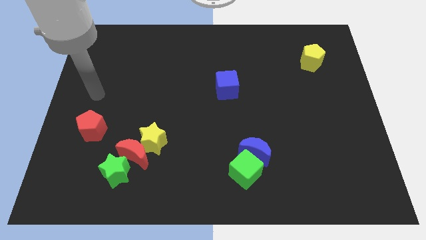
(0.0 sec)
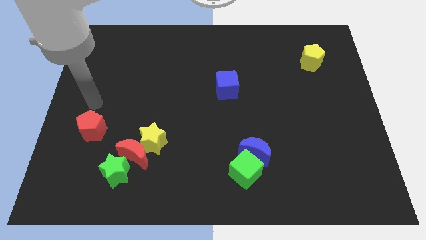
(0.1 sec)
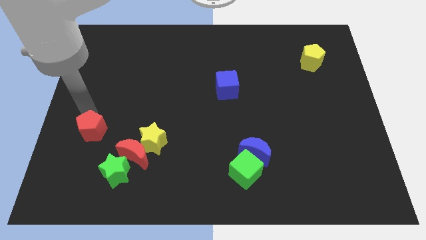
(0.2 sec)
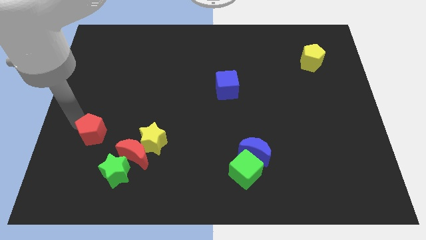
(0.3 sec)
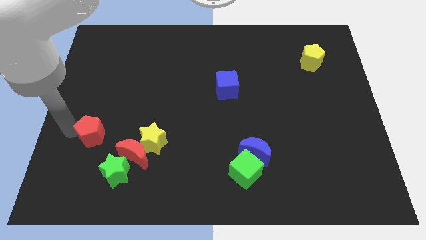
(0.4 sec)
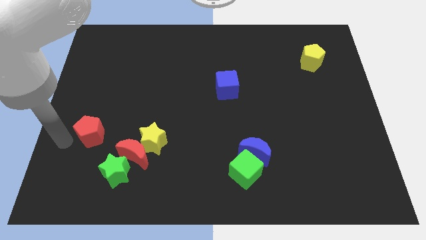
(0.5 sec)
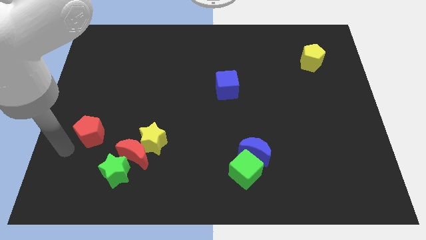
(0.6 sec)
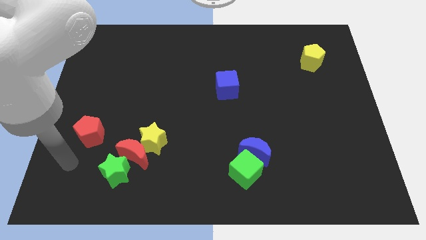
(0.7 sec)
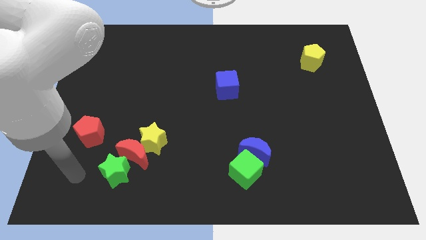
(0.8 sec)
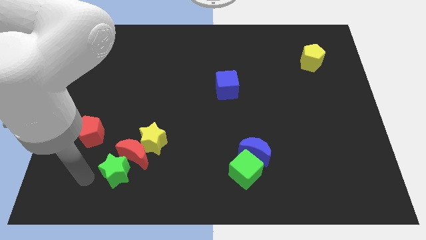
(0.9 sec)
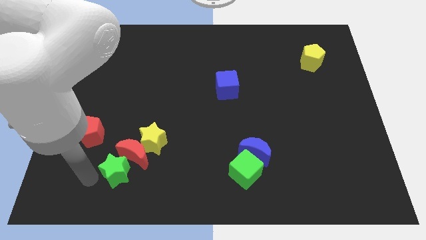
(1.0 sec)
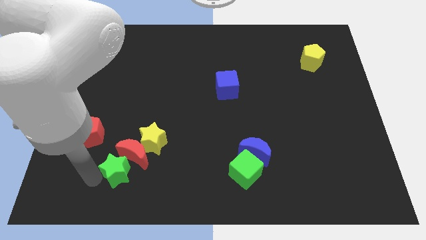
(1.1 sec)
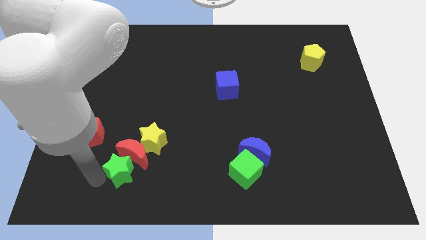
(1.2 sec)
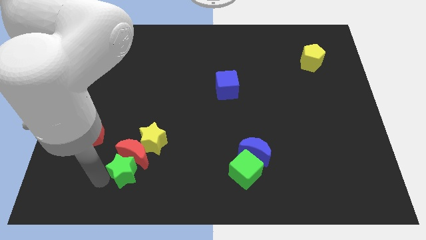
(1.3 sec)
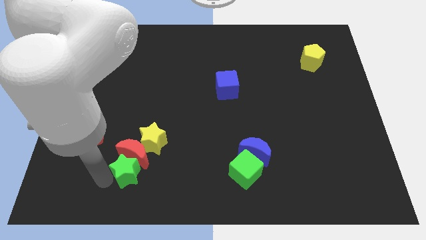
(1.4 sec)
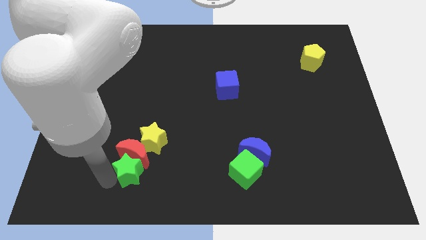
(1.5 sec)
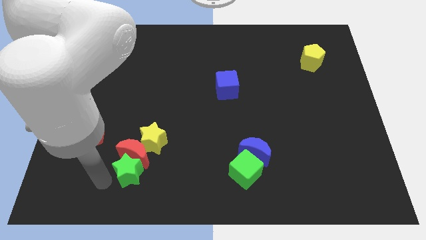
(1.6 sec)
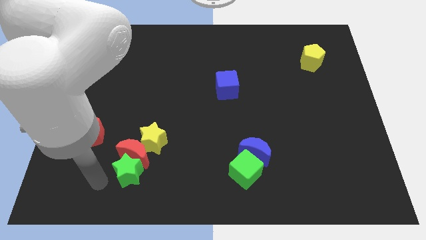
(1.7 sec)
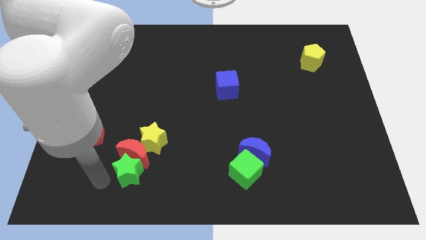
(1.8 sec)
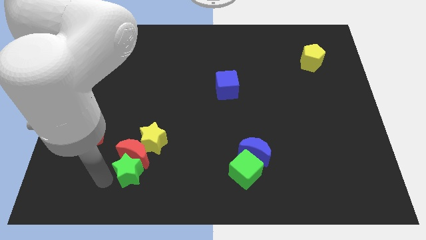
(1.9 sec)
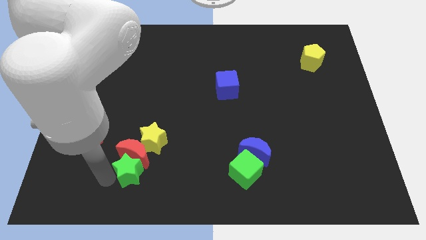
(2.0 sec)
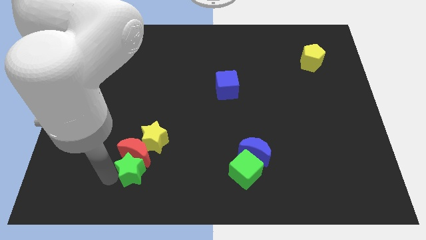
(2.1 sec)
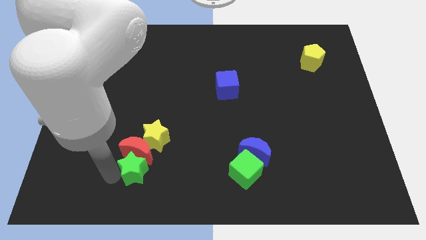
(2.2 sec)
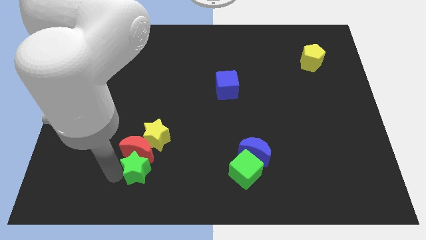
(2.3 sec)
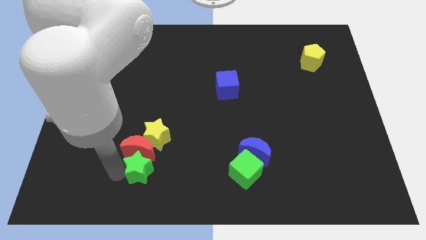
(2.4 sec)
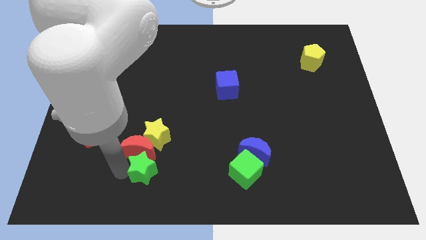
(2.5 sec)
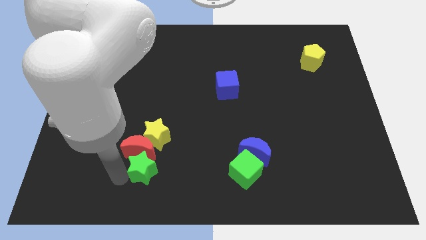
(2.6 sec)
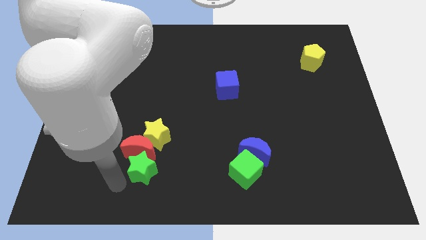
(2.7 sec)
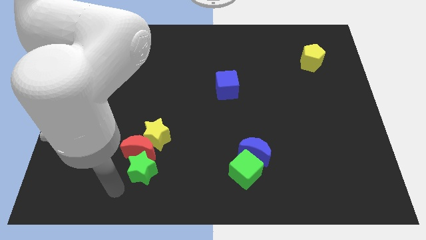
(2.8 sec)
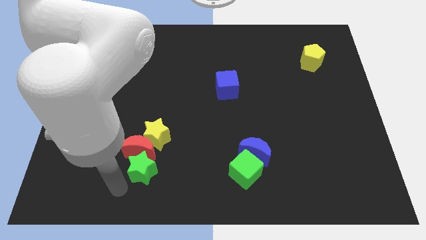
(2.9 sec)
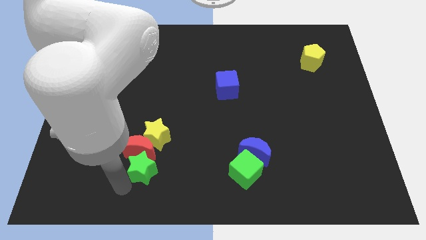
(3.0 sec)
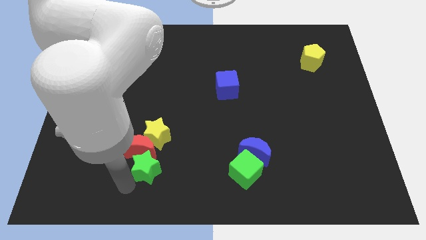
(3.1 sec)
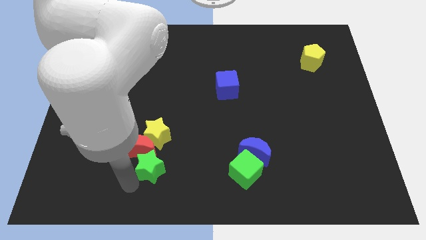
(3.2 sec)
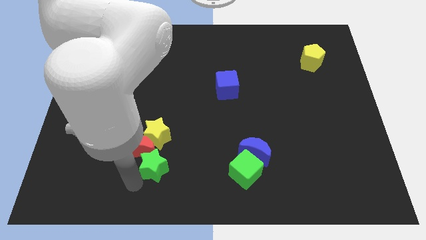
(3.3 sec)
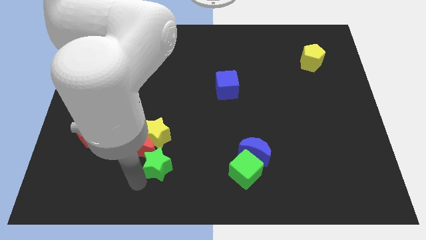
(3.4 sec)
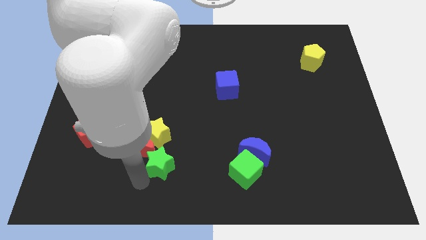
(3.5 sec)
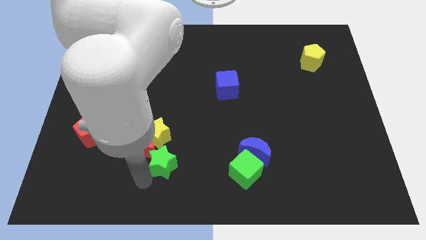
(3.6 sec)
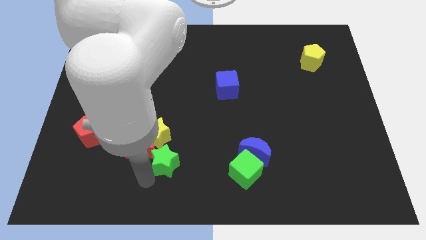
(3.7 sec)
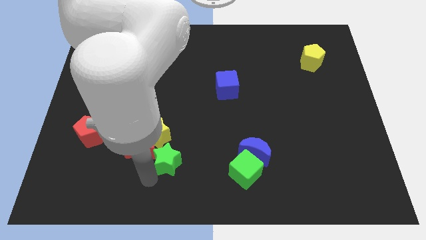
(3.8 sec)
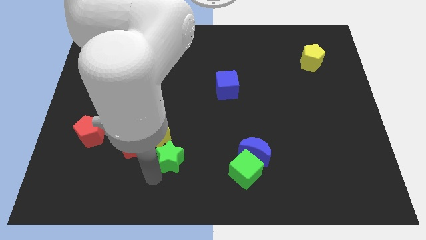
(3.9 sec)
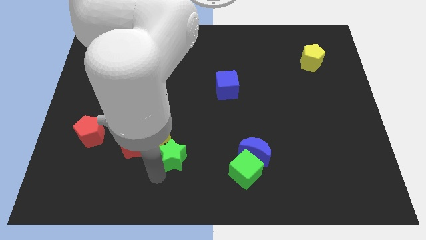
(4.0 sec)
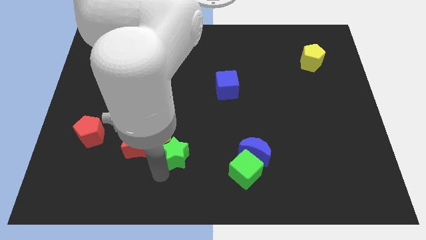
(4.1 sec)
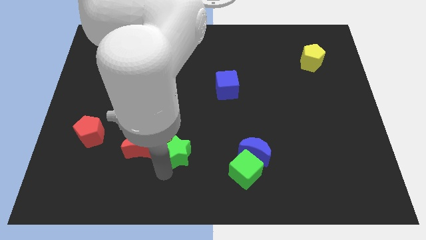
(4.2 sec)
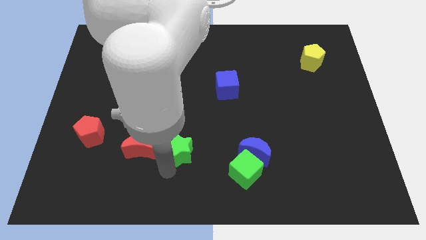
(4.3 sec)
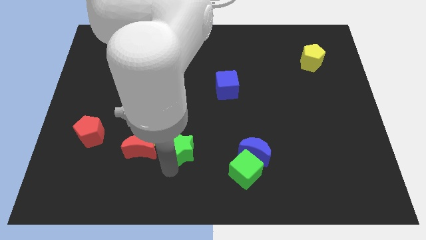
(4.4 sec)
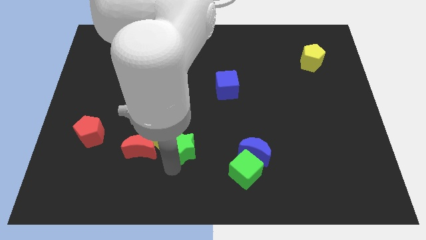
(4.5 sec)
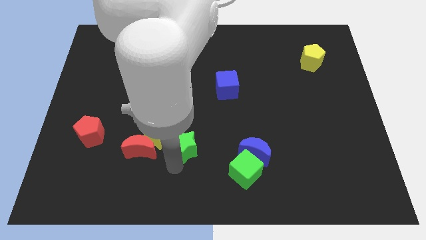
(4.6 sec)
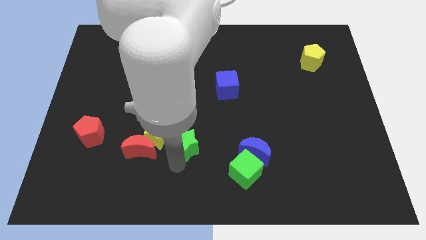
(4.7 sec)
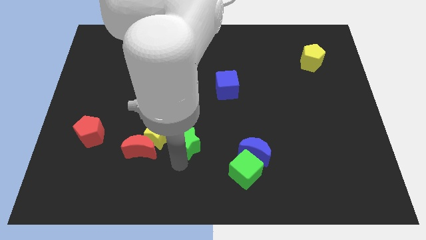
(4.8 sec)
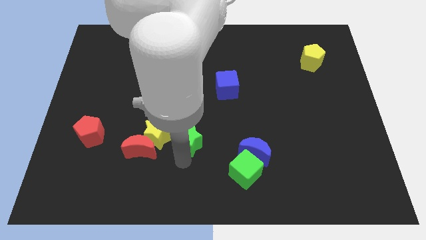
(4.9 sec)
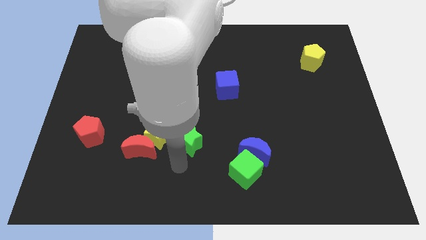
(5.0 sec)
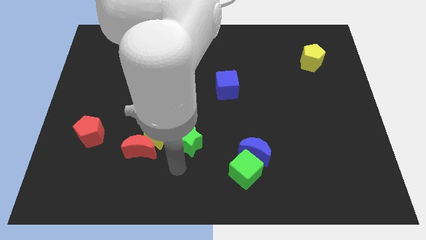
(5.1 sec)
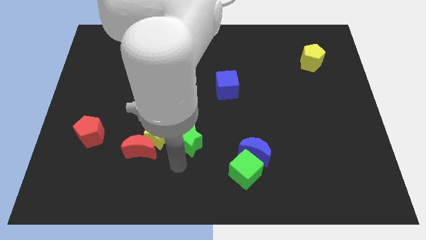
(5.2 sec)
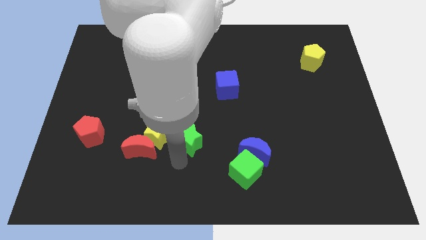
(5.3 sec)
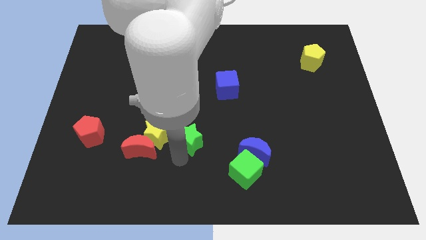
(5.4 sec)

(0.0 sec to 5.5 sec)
push the green star to the center of the board

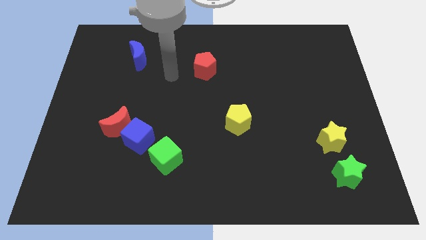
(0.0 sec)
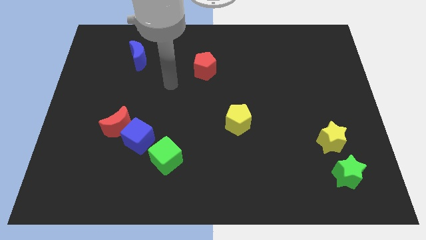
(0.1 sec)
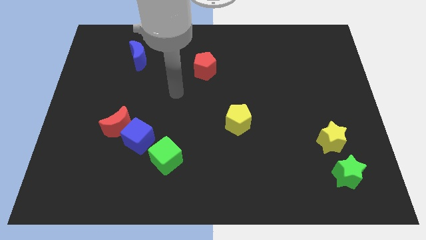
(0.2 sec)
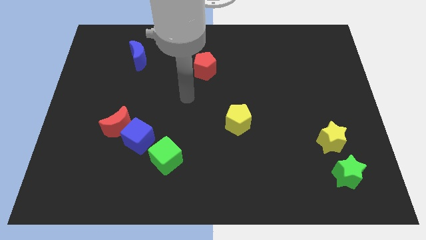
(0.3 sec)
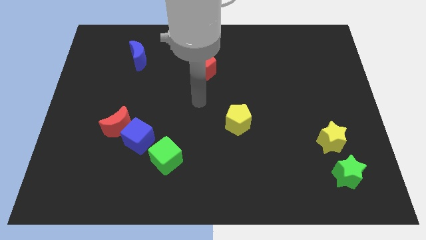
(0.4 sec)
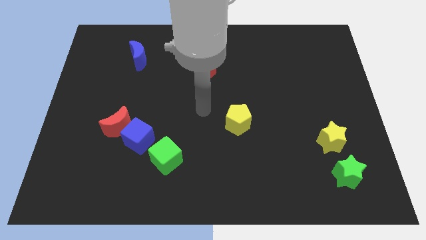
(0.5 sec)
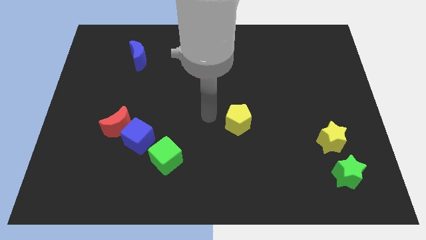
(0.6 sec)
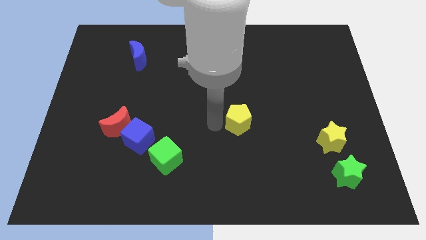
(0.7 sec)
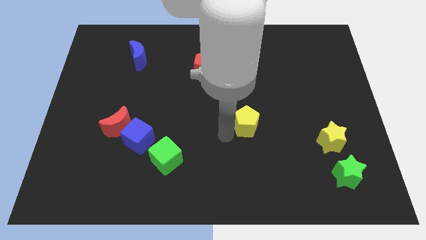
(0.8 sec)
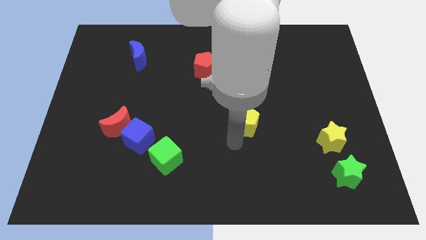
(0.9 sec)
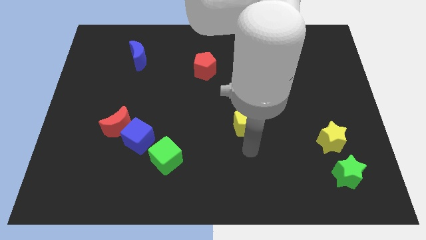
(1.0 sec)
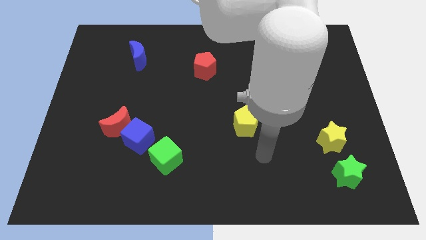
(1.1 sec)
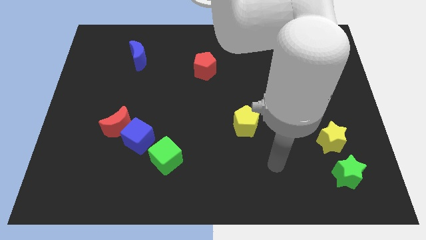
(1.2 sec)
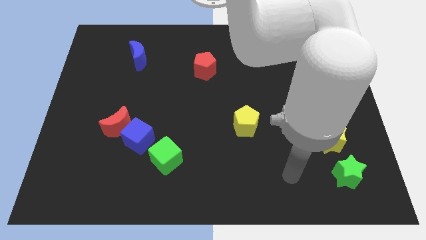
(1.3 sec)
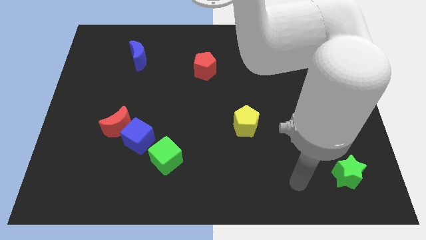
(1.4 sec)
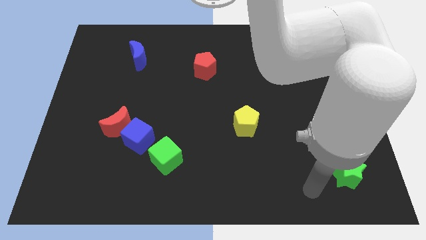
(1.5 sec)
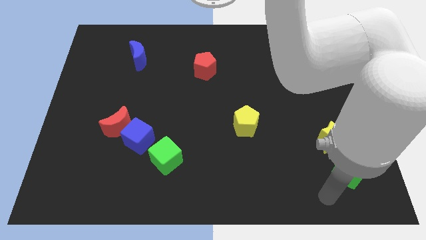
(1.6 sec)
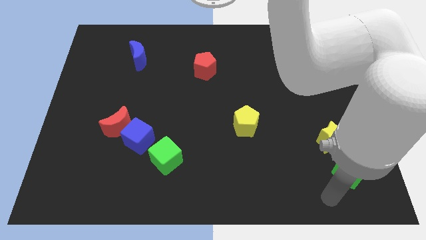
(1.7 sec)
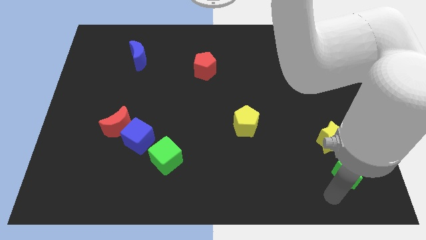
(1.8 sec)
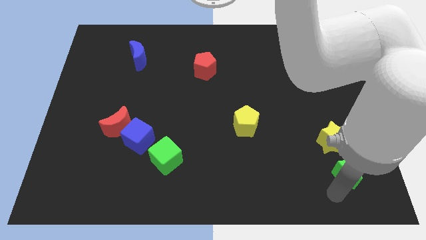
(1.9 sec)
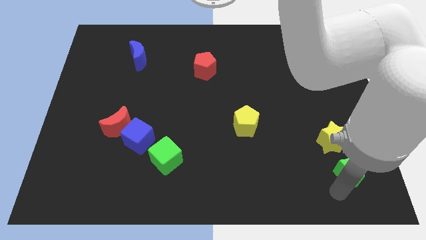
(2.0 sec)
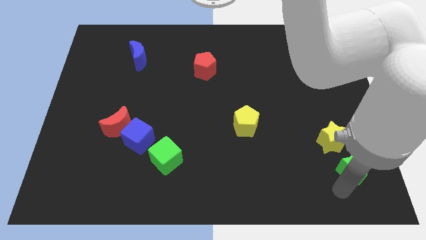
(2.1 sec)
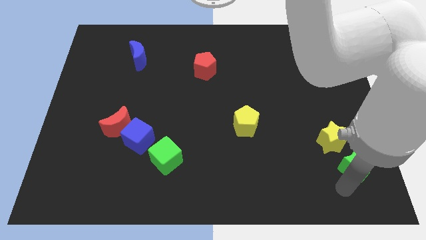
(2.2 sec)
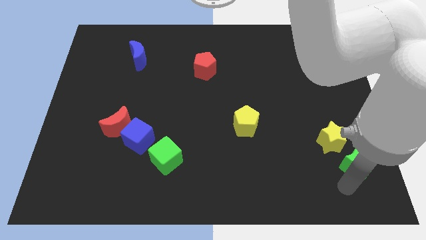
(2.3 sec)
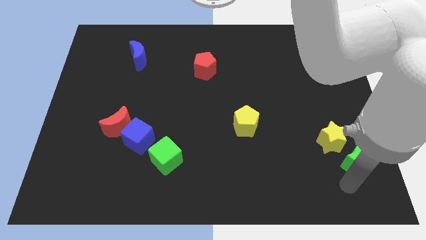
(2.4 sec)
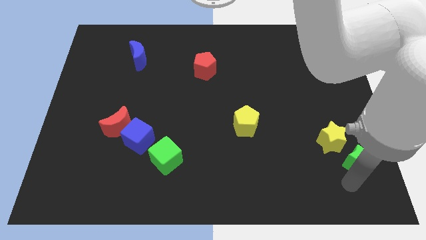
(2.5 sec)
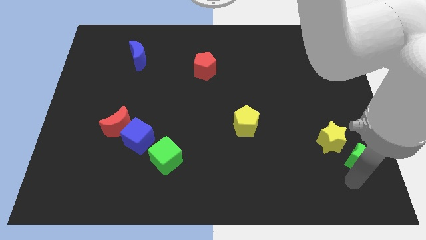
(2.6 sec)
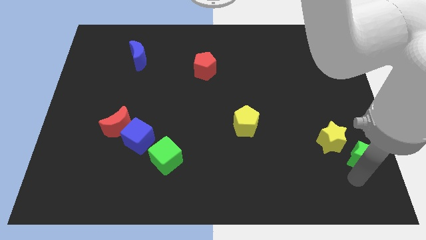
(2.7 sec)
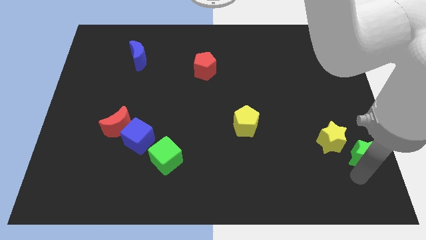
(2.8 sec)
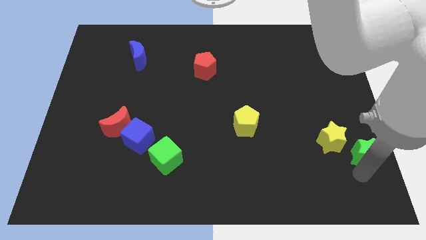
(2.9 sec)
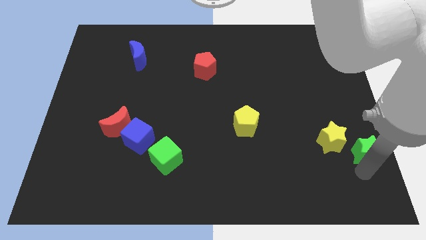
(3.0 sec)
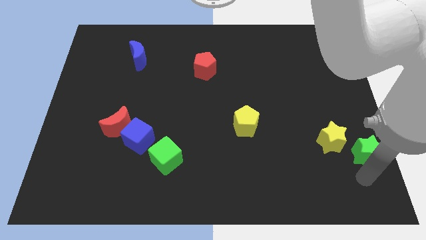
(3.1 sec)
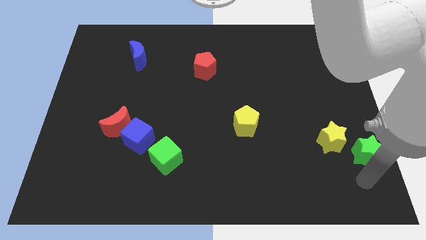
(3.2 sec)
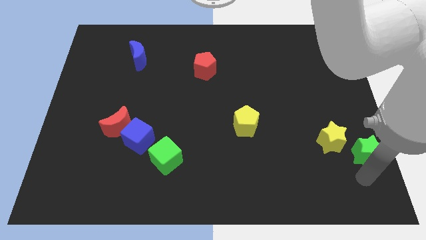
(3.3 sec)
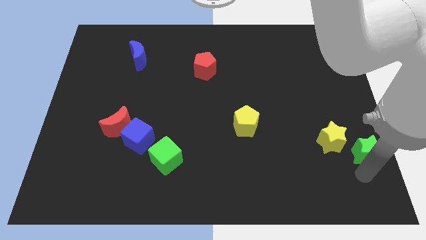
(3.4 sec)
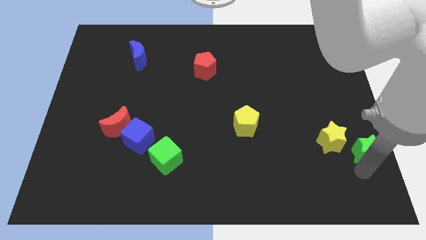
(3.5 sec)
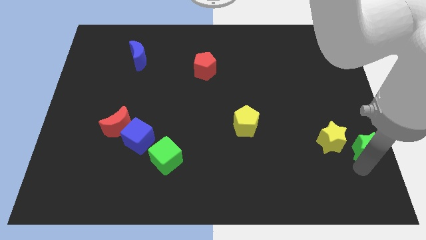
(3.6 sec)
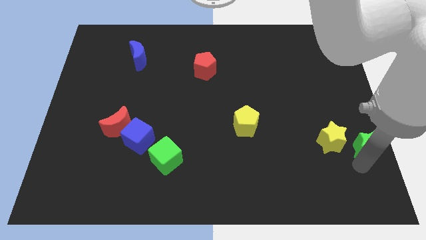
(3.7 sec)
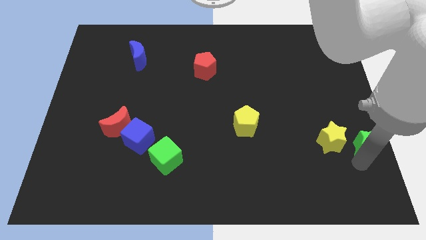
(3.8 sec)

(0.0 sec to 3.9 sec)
put the green star to the center right
